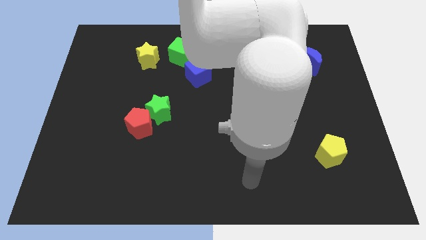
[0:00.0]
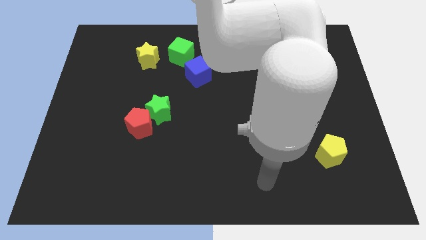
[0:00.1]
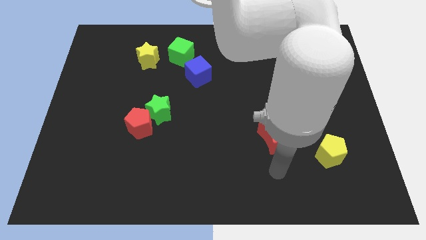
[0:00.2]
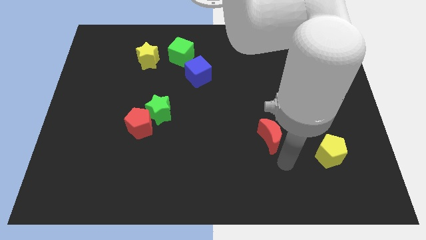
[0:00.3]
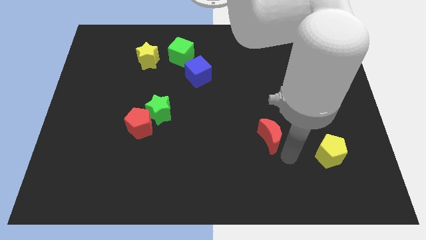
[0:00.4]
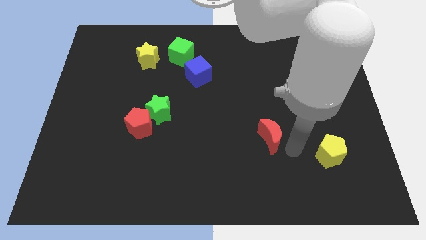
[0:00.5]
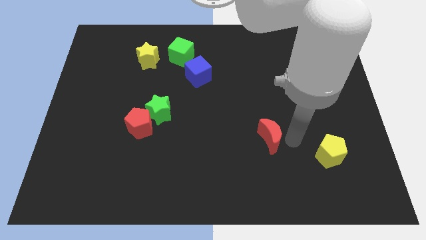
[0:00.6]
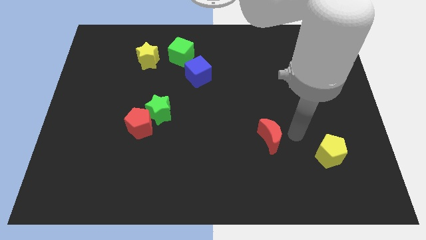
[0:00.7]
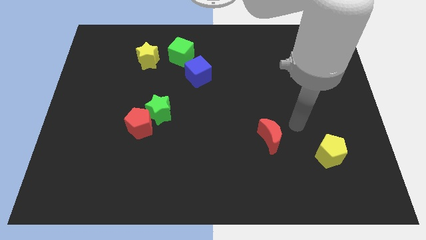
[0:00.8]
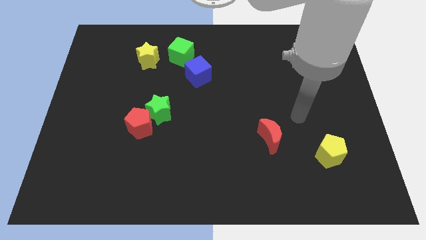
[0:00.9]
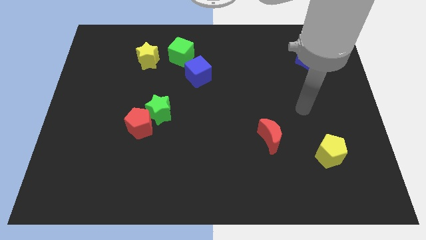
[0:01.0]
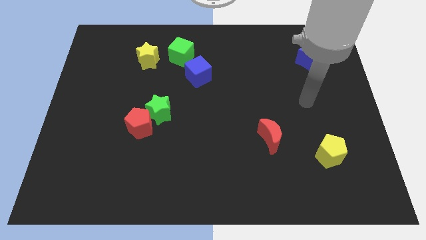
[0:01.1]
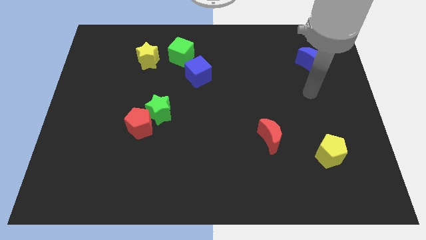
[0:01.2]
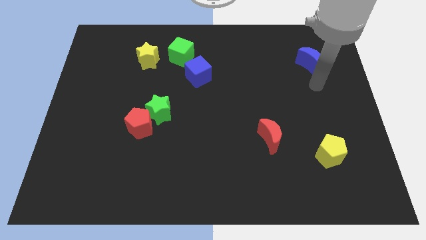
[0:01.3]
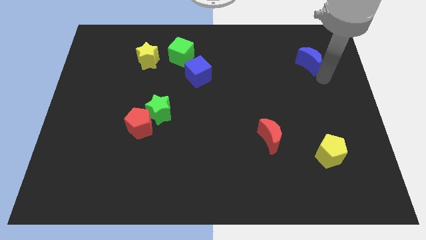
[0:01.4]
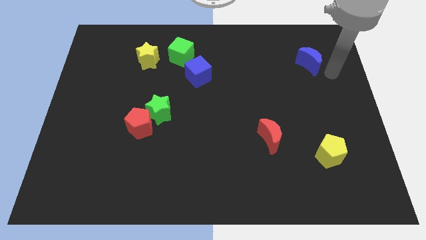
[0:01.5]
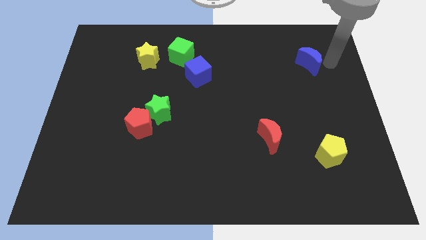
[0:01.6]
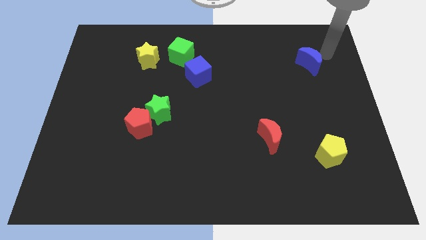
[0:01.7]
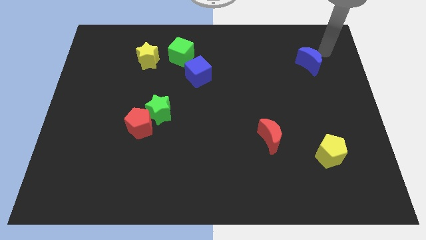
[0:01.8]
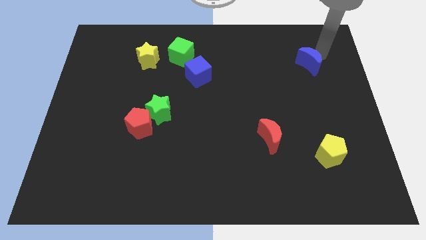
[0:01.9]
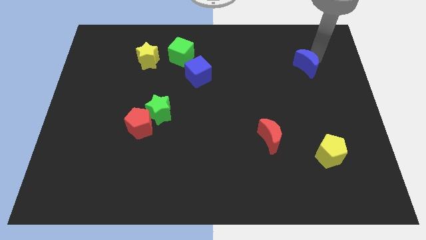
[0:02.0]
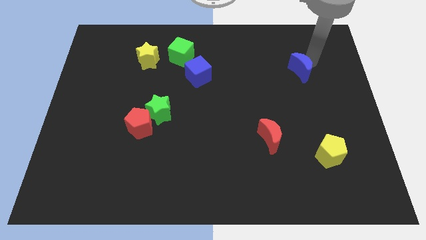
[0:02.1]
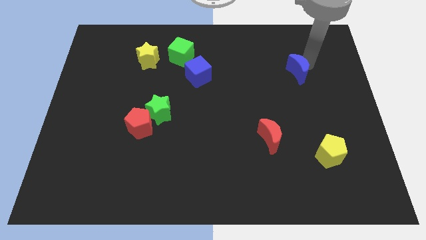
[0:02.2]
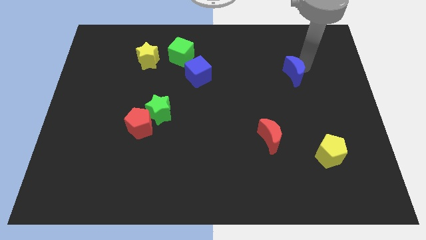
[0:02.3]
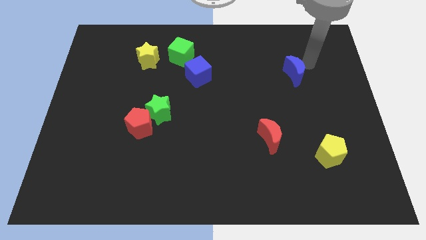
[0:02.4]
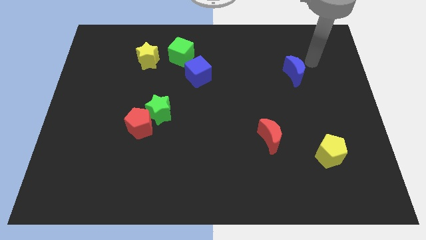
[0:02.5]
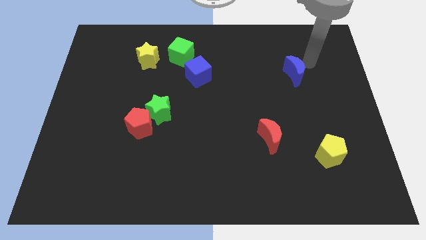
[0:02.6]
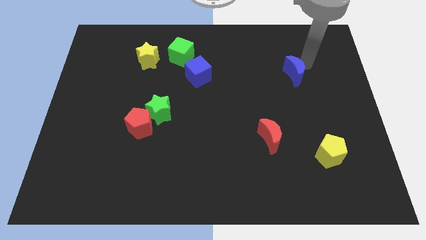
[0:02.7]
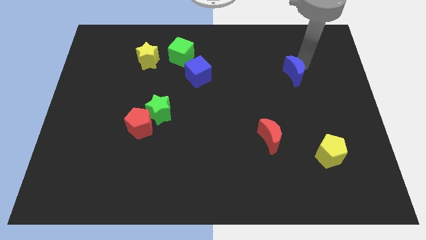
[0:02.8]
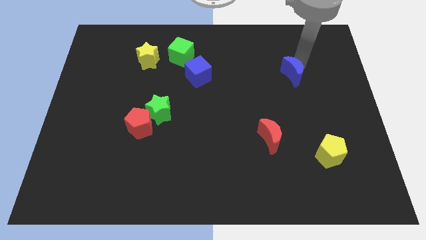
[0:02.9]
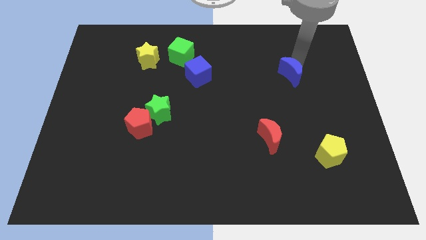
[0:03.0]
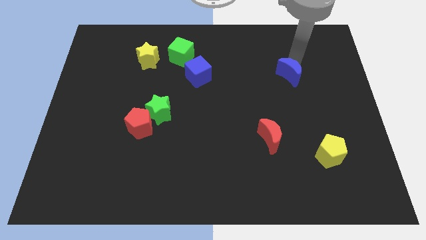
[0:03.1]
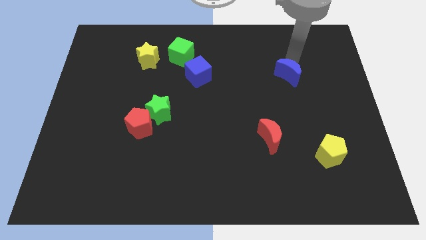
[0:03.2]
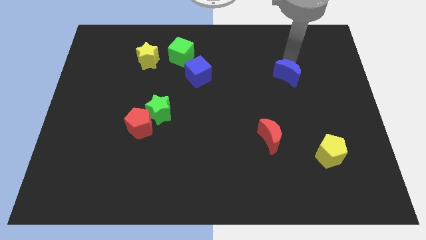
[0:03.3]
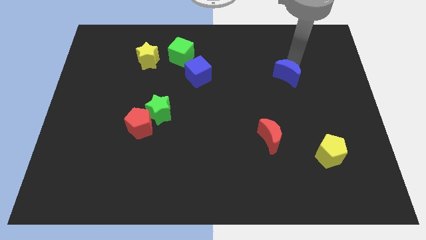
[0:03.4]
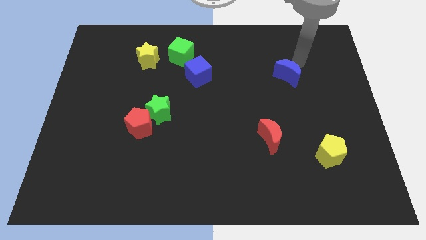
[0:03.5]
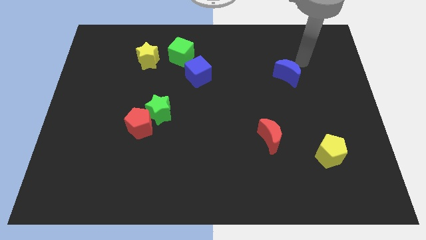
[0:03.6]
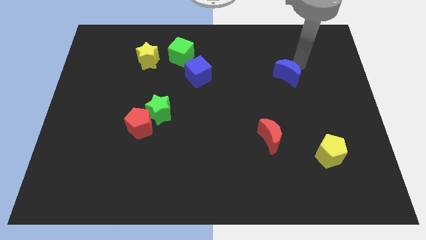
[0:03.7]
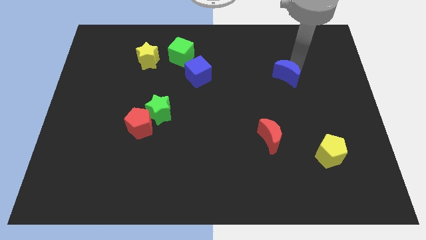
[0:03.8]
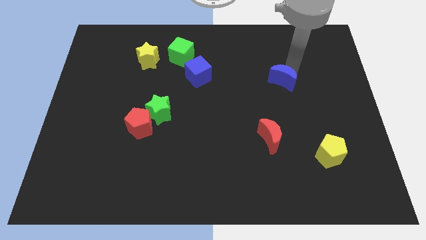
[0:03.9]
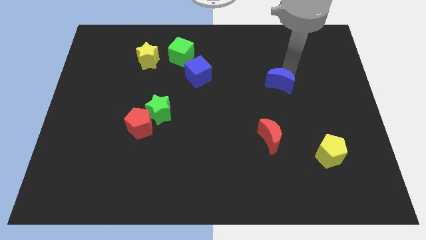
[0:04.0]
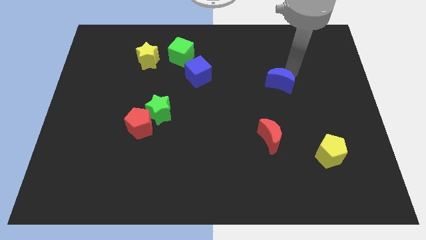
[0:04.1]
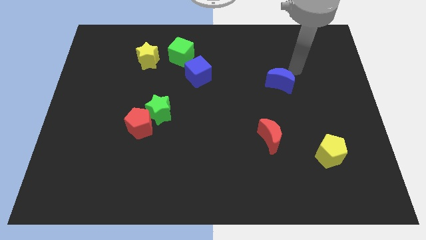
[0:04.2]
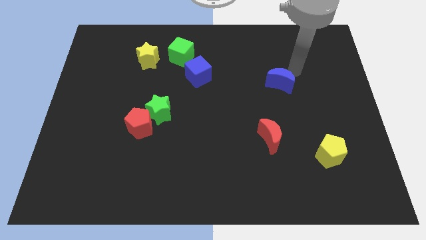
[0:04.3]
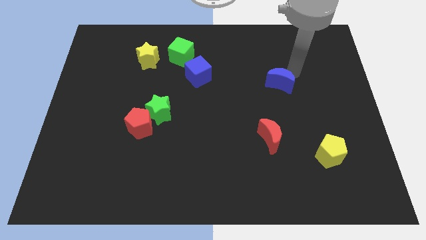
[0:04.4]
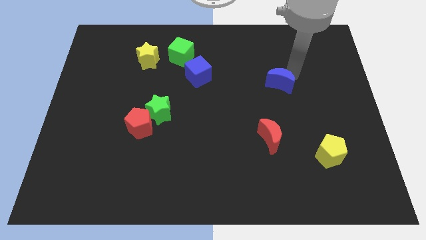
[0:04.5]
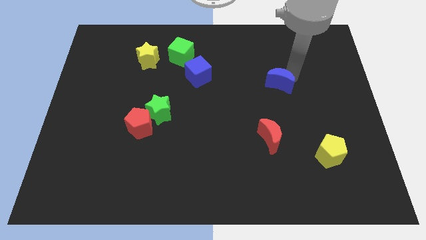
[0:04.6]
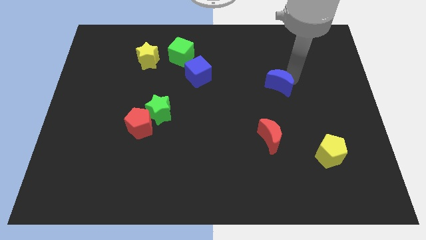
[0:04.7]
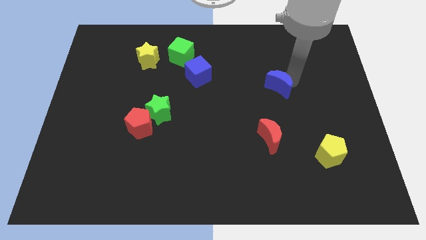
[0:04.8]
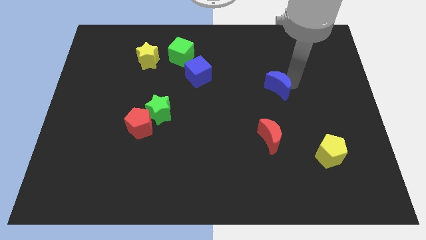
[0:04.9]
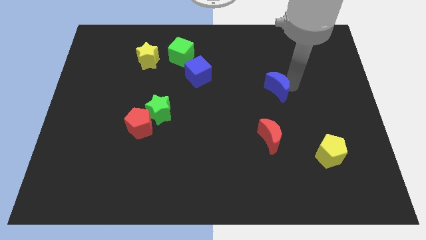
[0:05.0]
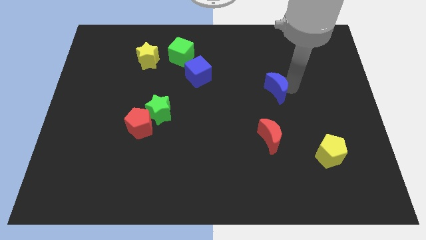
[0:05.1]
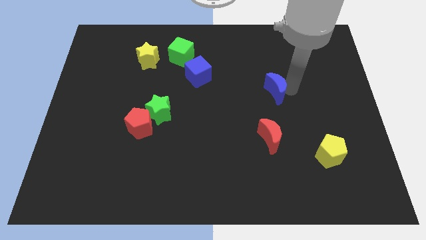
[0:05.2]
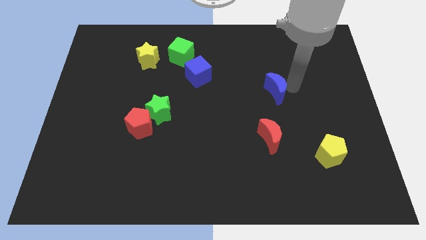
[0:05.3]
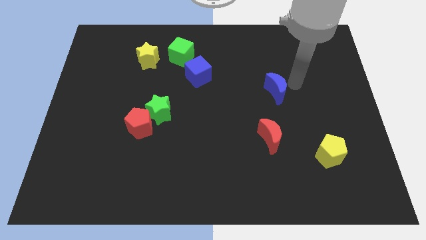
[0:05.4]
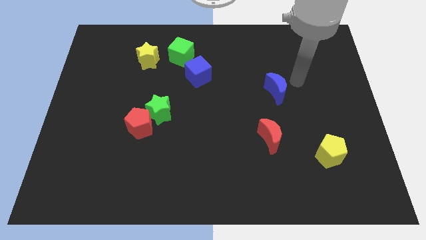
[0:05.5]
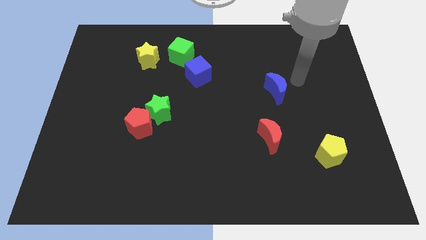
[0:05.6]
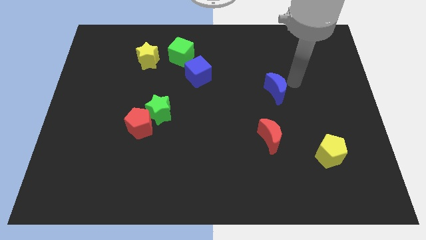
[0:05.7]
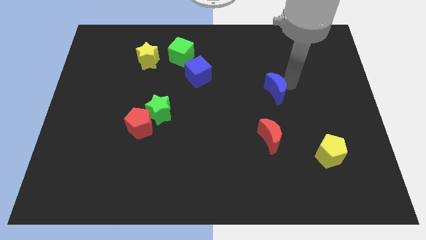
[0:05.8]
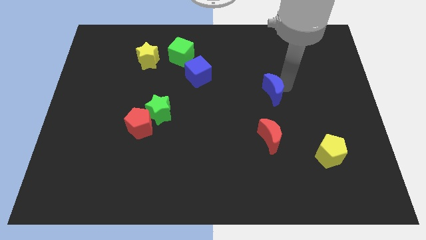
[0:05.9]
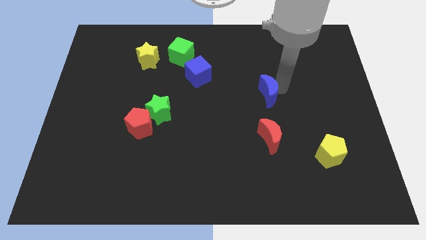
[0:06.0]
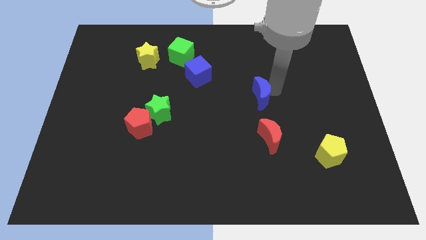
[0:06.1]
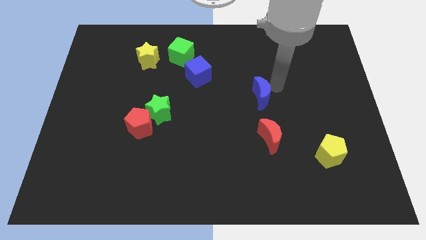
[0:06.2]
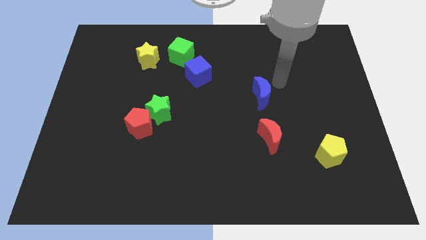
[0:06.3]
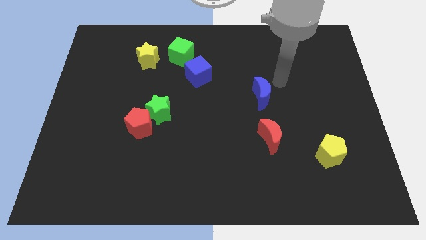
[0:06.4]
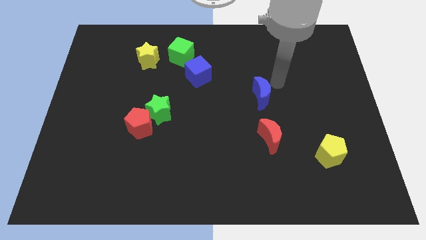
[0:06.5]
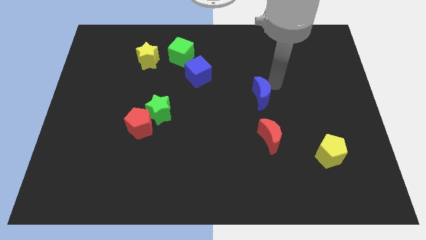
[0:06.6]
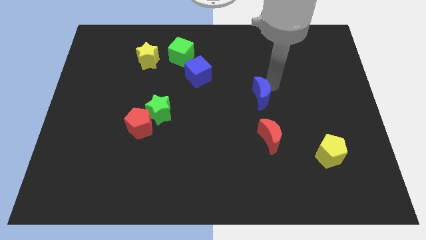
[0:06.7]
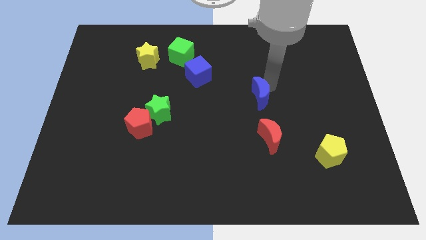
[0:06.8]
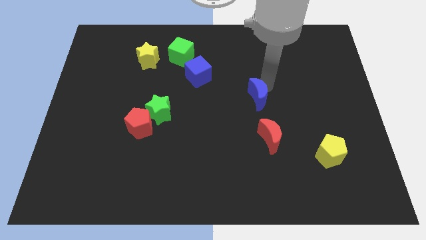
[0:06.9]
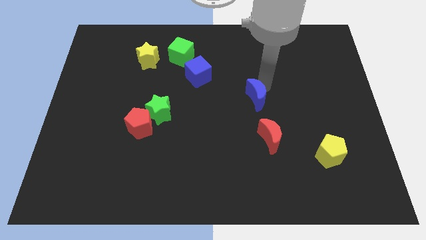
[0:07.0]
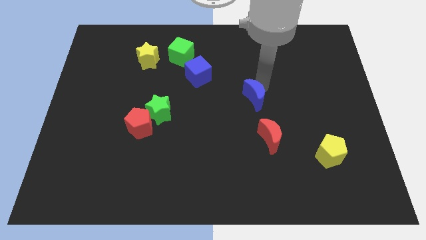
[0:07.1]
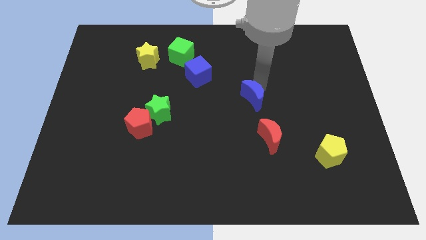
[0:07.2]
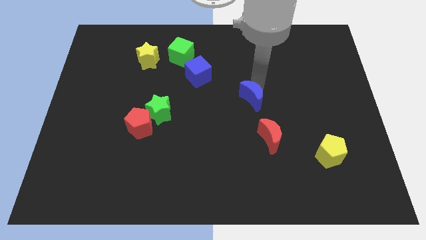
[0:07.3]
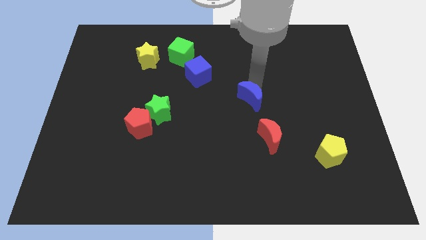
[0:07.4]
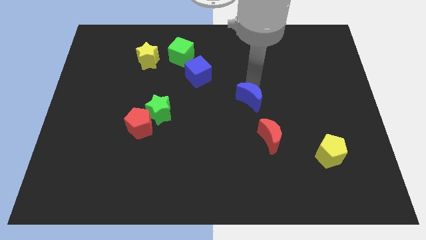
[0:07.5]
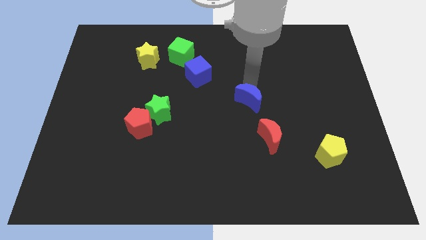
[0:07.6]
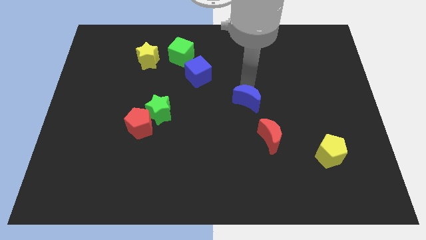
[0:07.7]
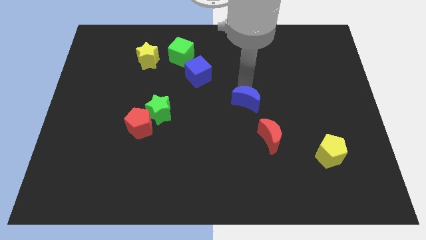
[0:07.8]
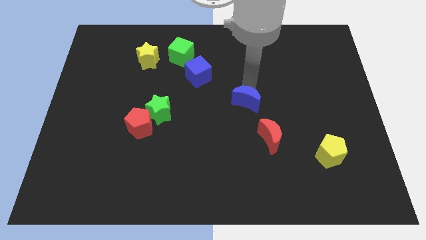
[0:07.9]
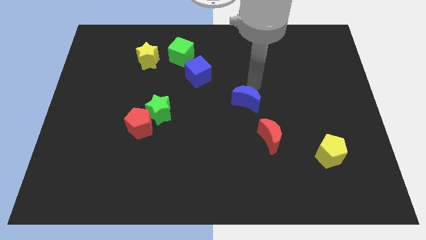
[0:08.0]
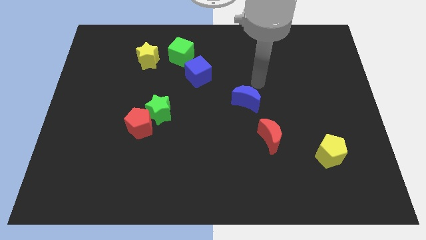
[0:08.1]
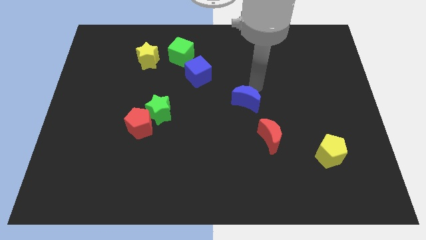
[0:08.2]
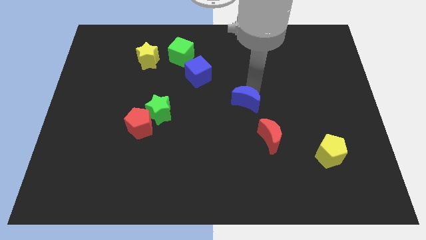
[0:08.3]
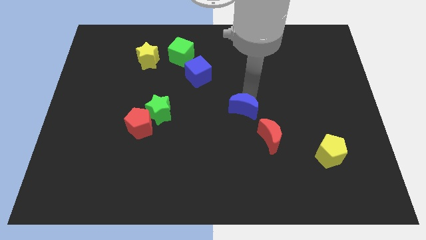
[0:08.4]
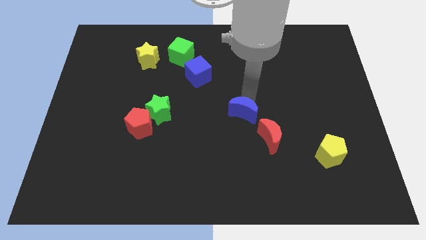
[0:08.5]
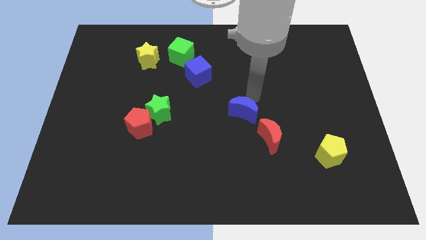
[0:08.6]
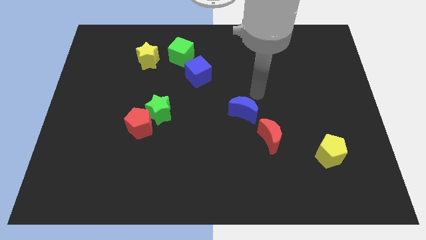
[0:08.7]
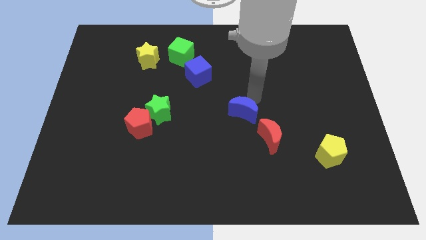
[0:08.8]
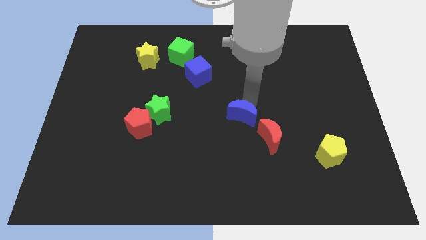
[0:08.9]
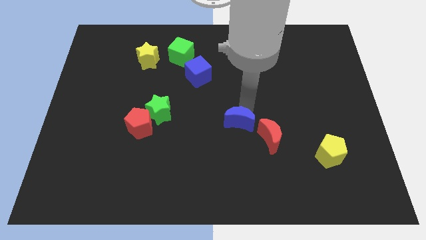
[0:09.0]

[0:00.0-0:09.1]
slide the blue moon to the left side of the red moon
